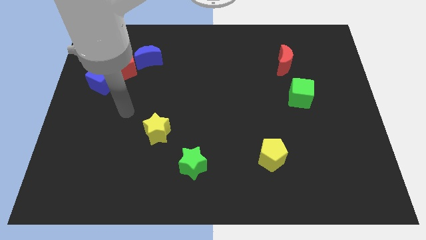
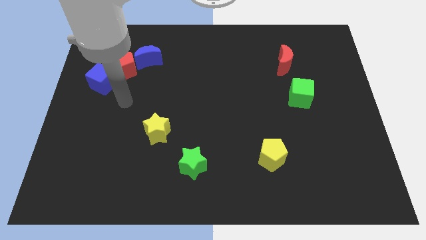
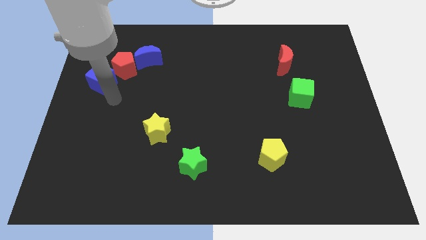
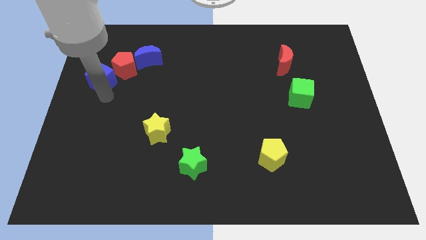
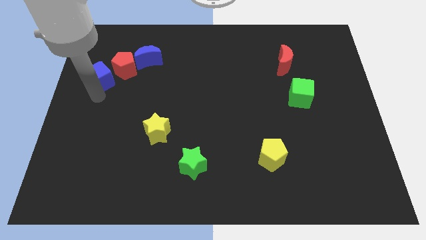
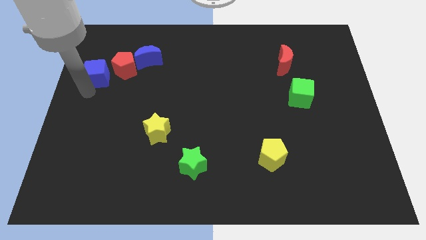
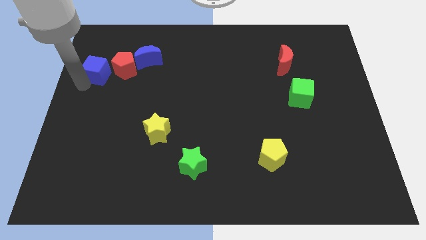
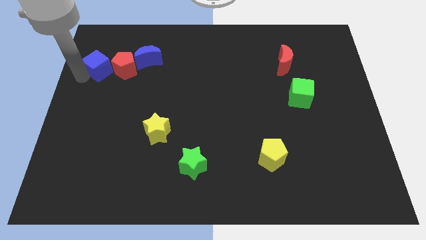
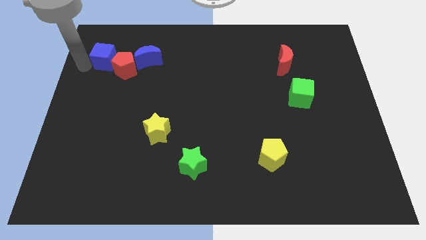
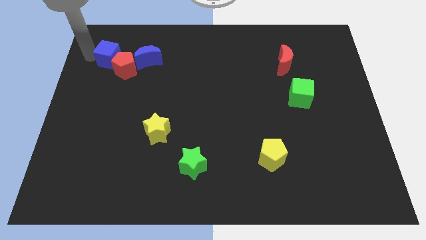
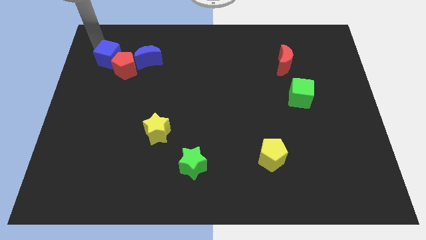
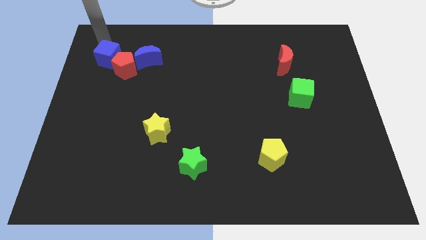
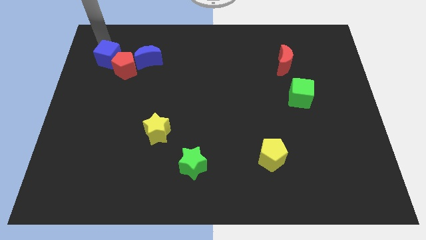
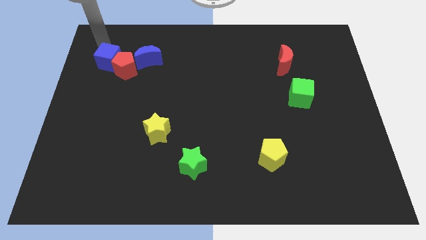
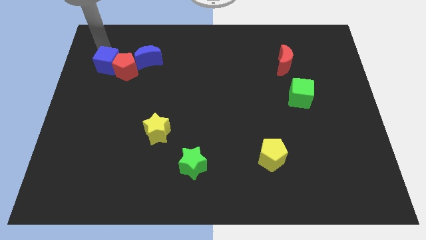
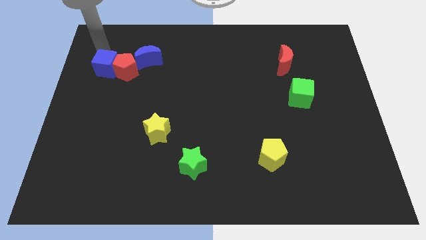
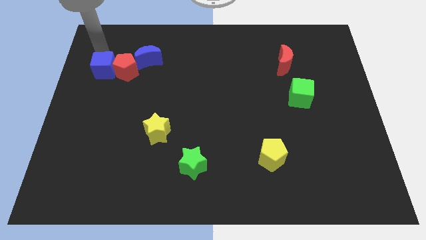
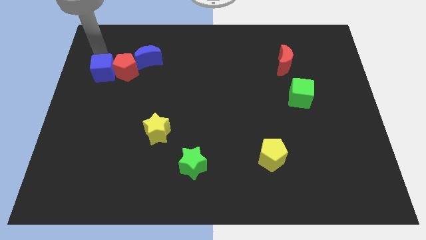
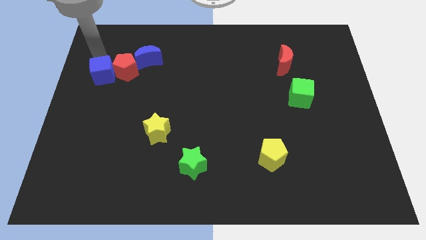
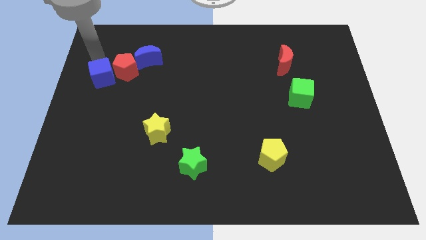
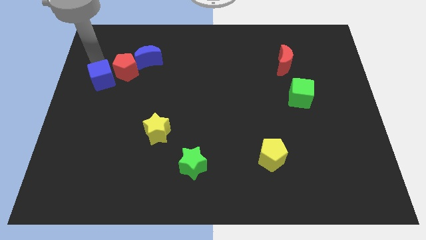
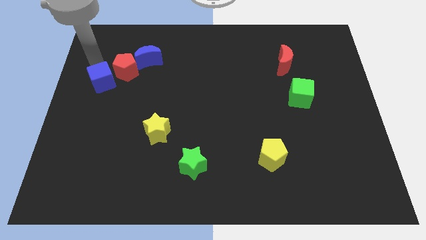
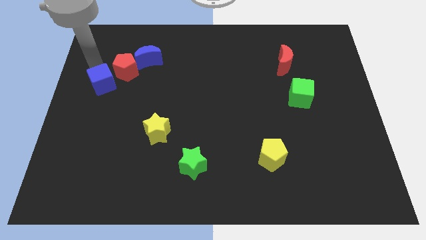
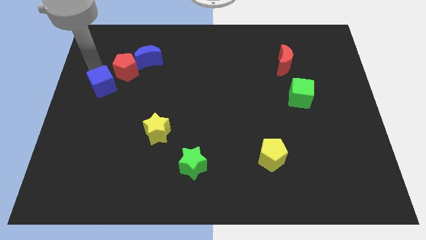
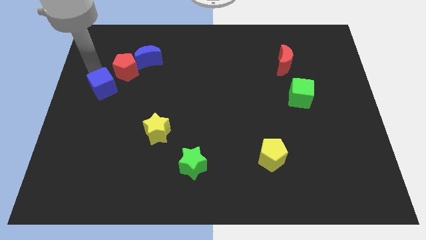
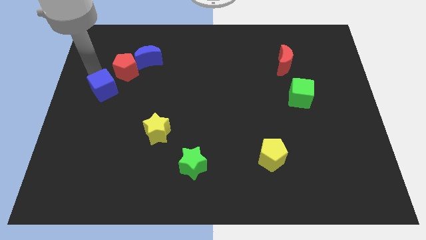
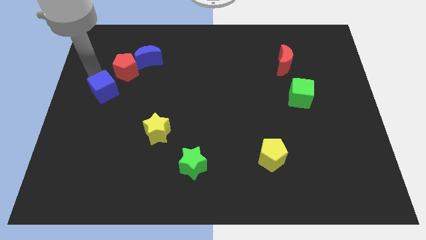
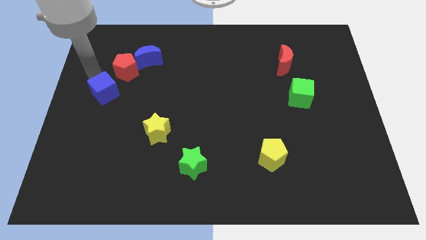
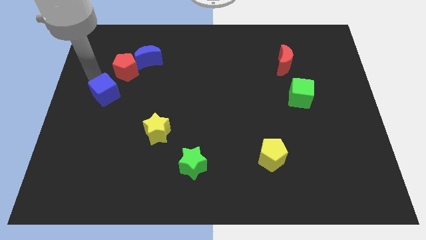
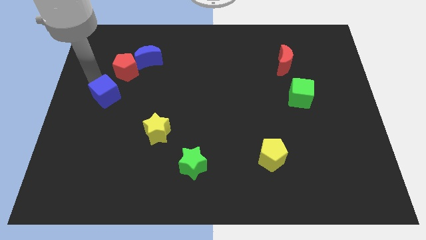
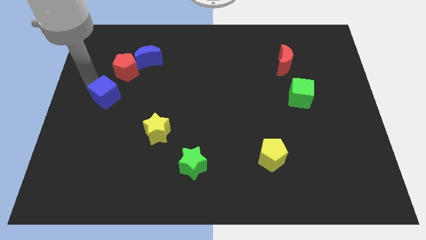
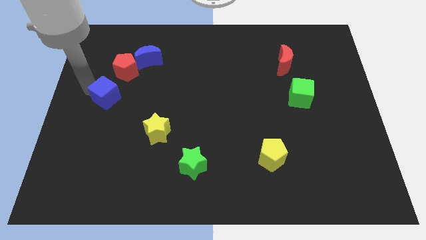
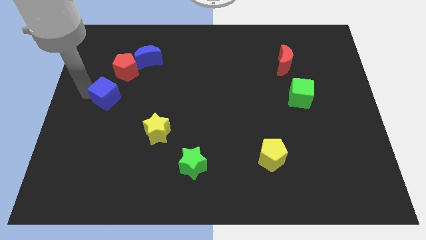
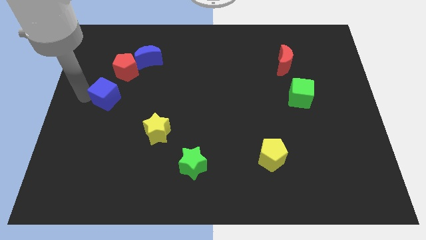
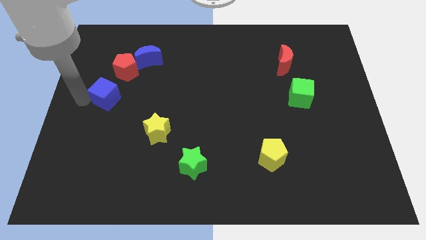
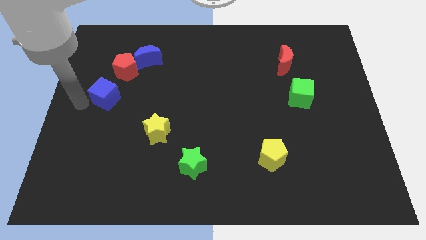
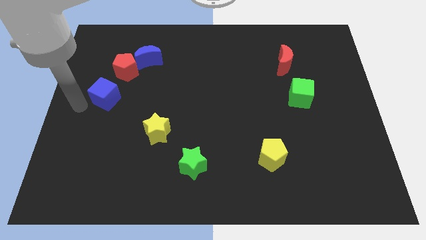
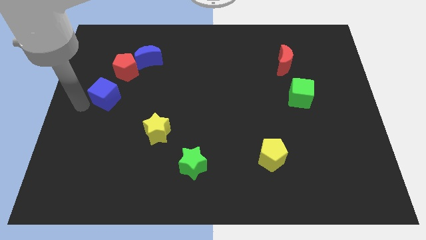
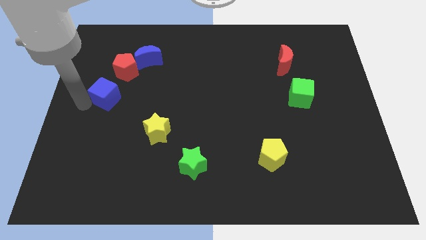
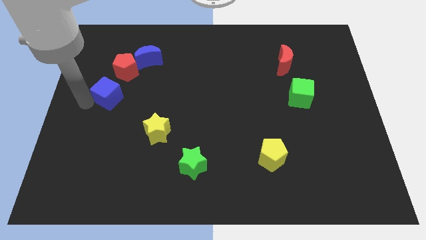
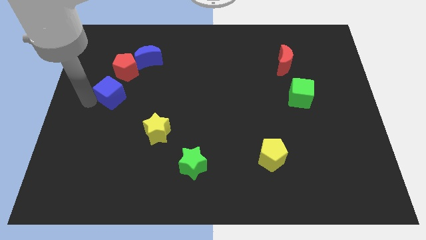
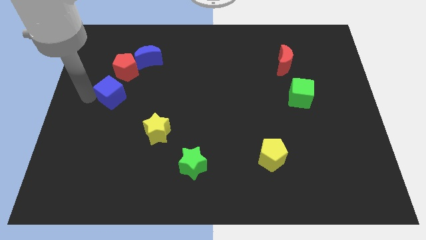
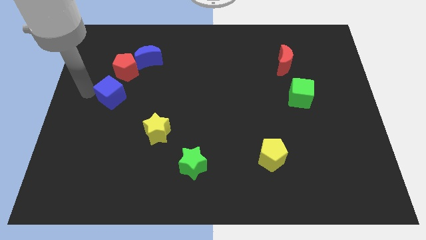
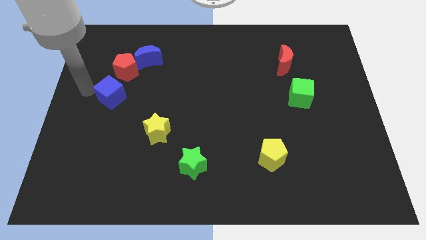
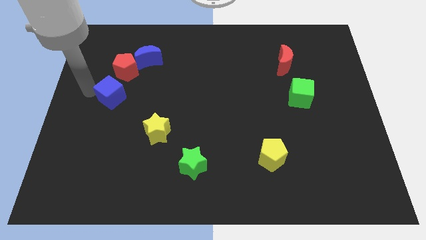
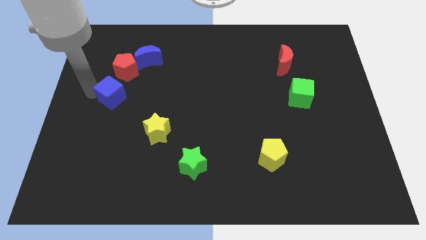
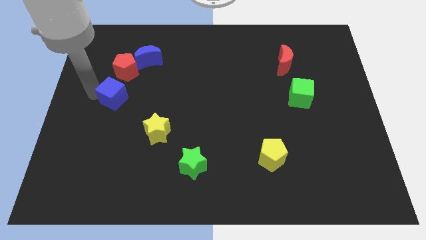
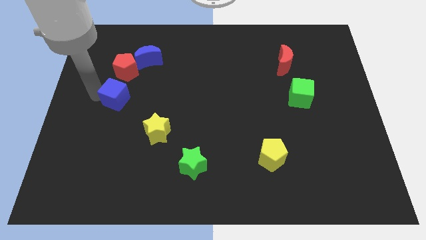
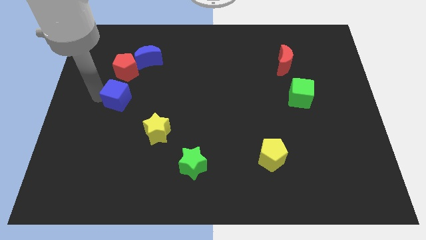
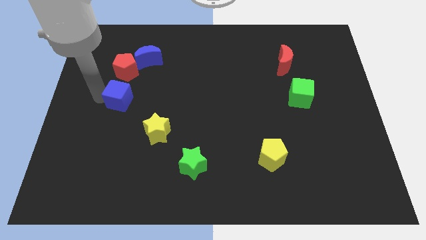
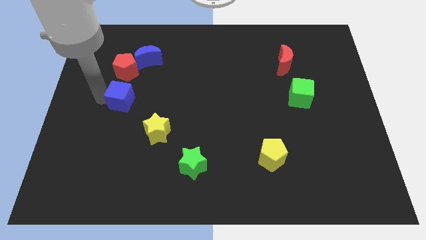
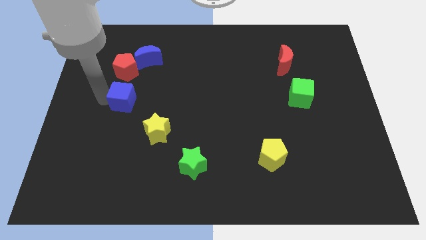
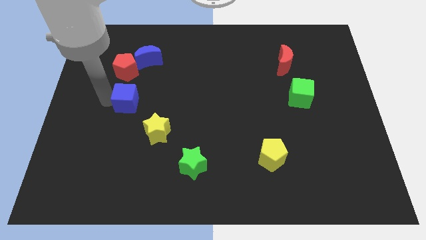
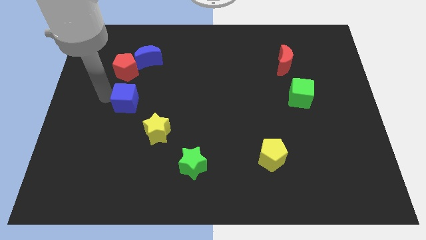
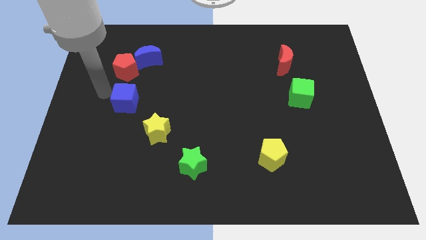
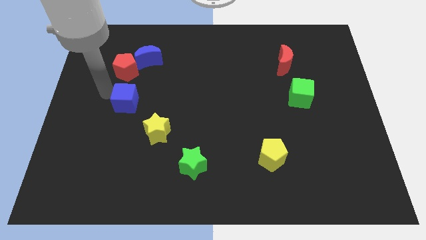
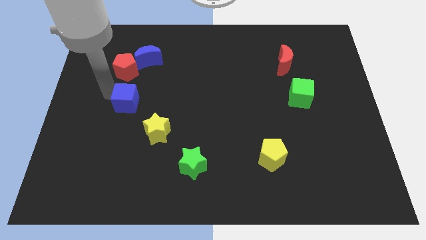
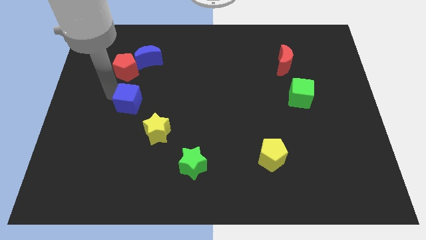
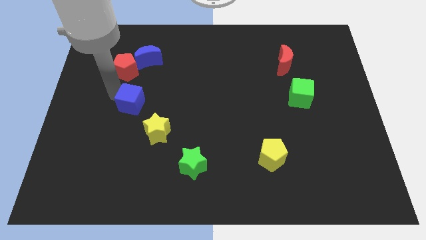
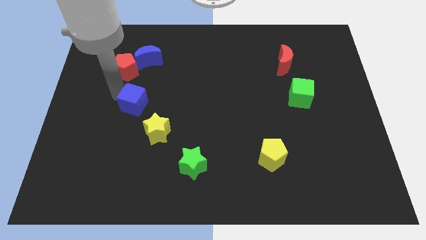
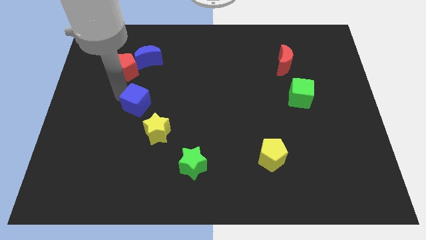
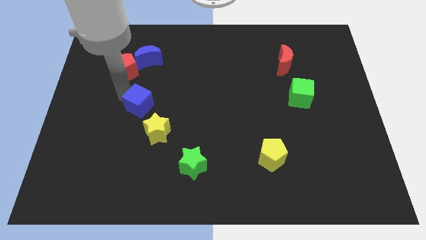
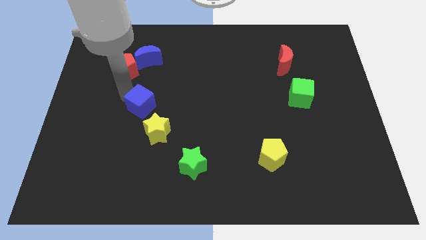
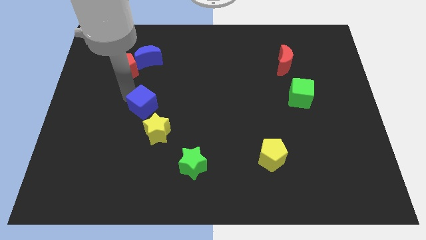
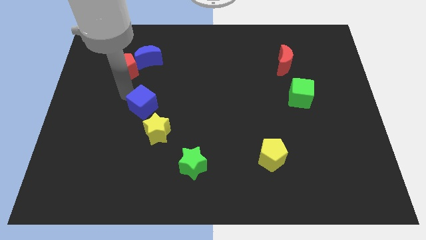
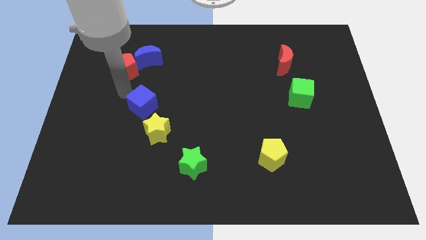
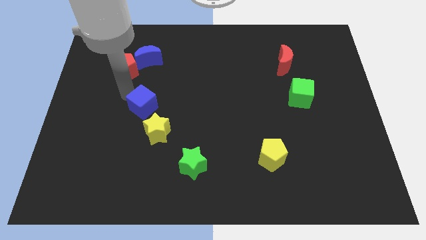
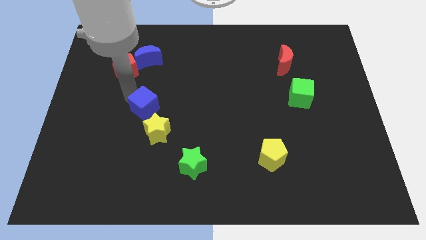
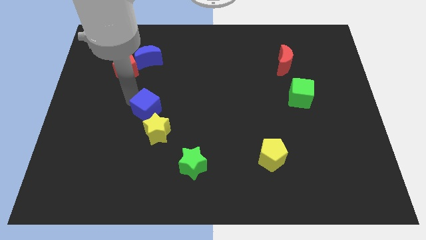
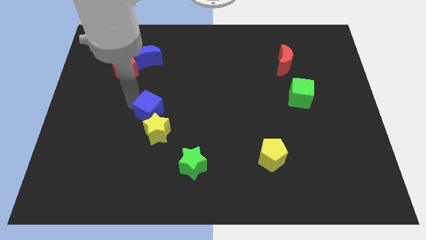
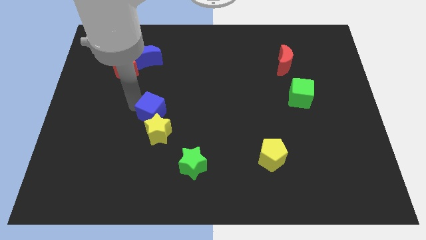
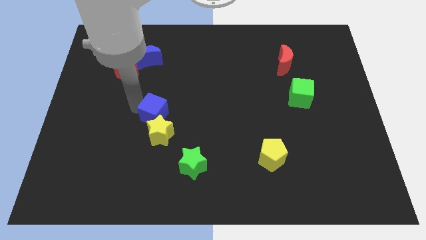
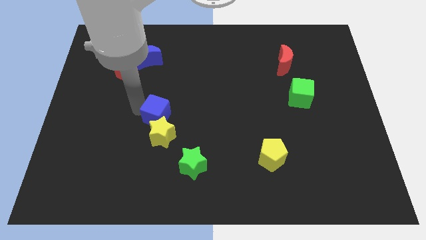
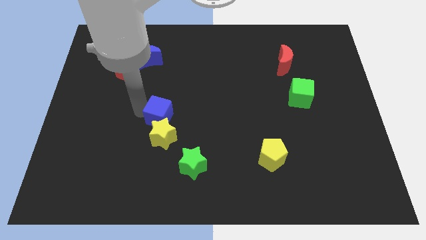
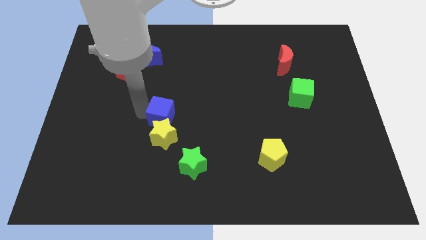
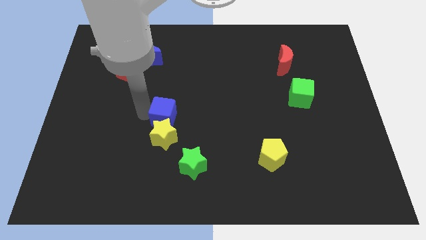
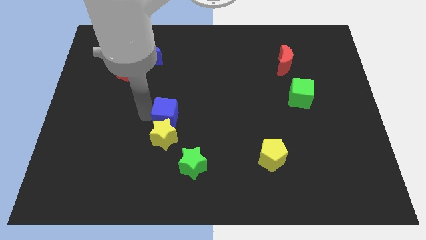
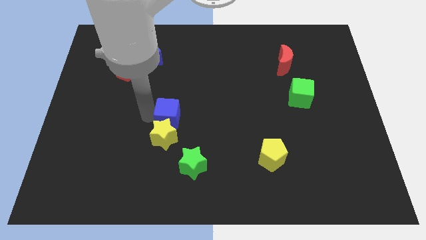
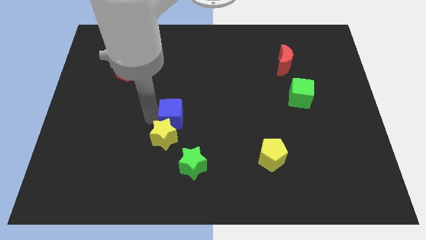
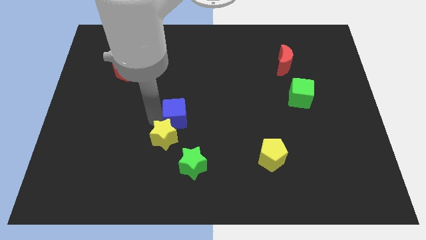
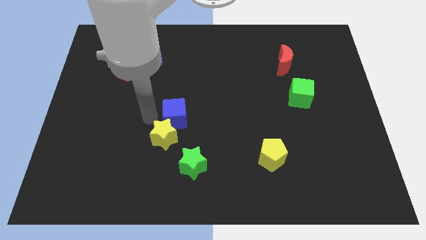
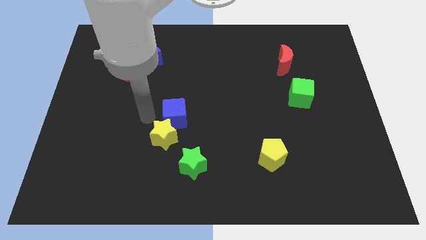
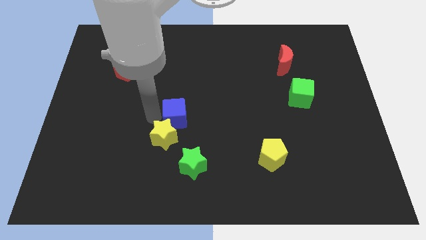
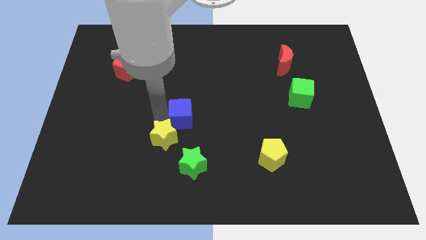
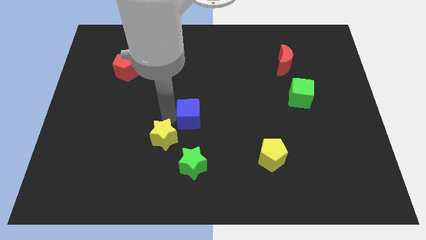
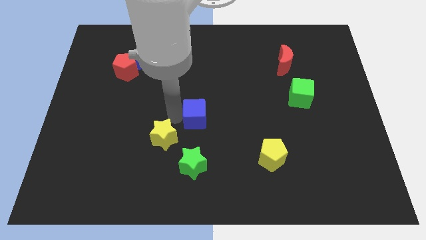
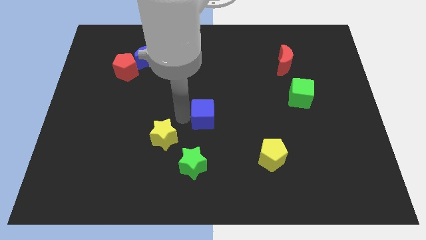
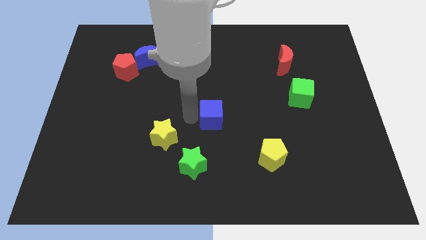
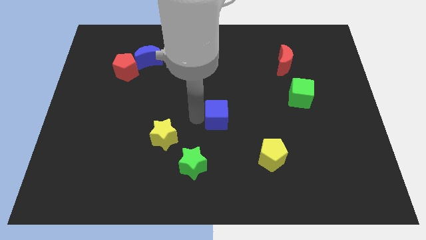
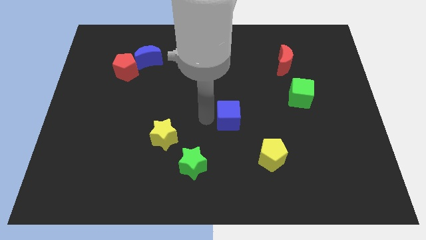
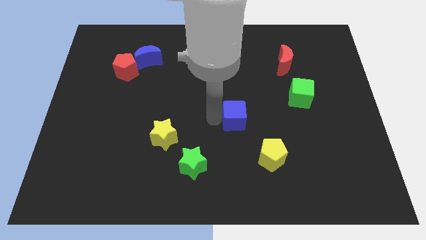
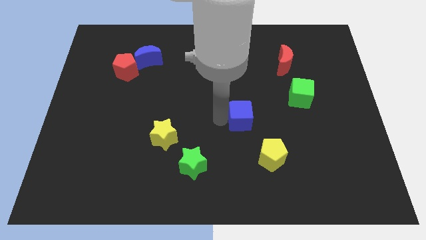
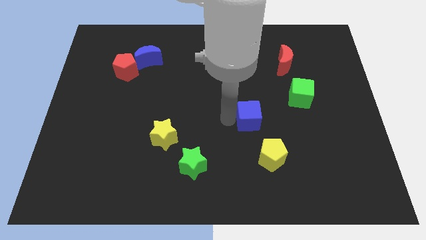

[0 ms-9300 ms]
push the blue cube to the top of the yellow pentagon
